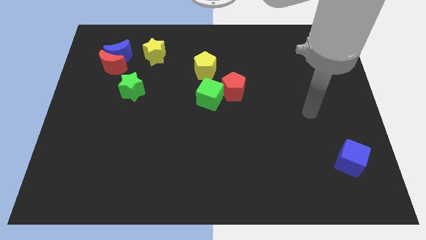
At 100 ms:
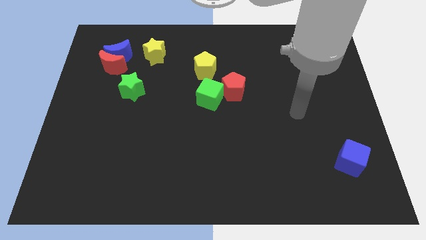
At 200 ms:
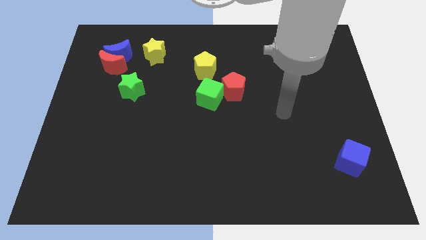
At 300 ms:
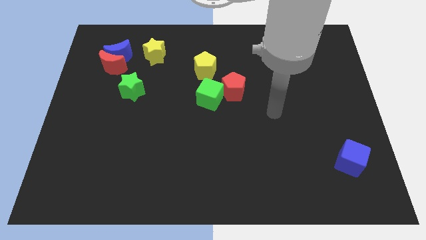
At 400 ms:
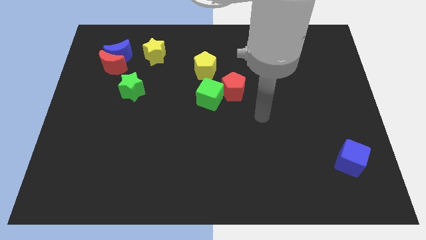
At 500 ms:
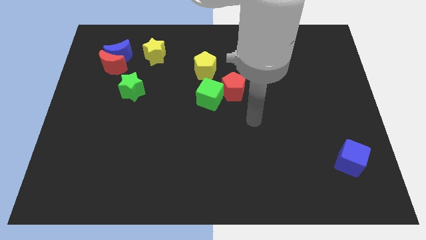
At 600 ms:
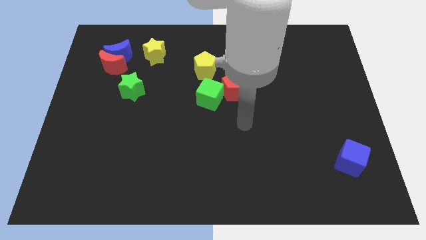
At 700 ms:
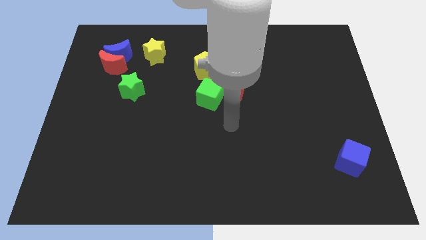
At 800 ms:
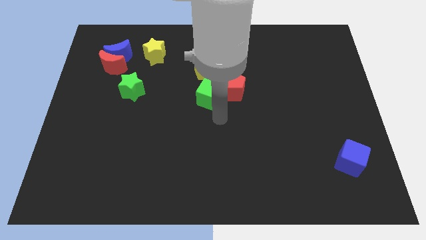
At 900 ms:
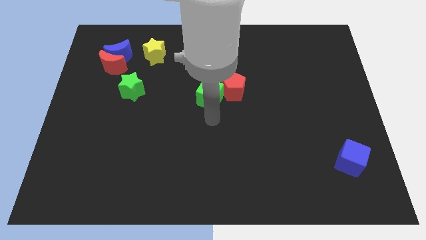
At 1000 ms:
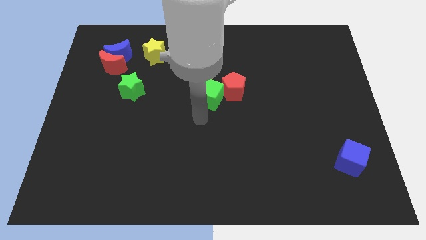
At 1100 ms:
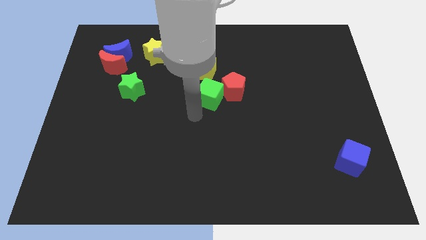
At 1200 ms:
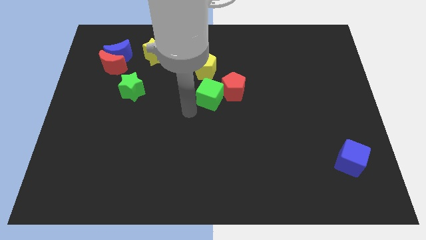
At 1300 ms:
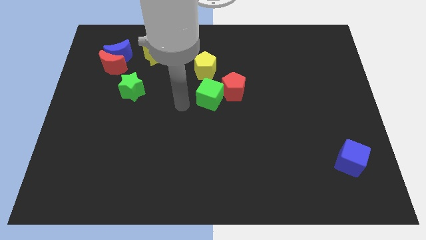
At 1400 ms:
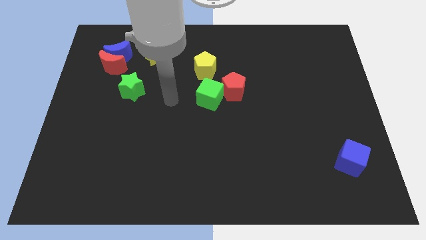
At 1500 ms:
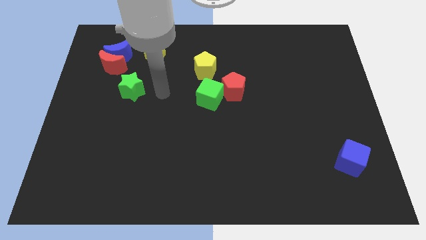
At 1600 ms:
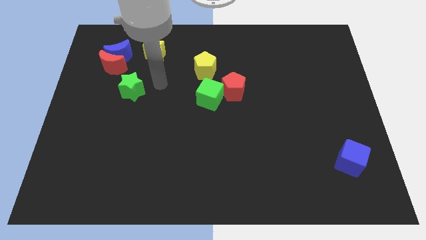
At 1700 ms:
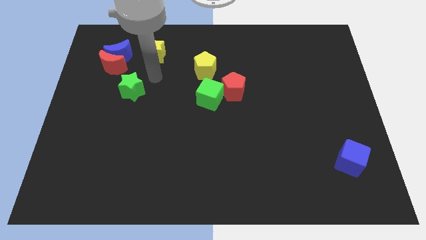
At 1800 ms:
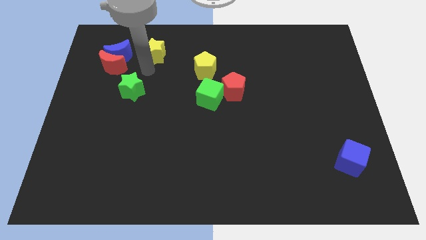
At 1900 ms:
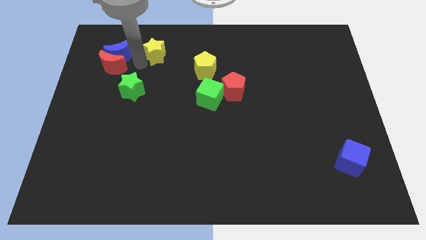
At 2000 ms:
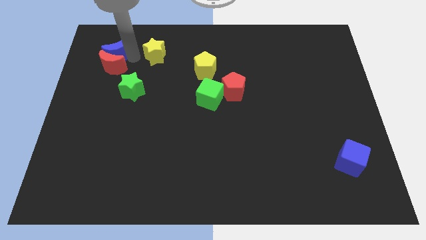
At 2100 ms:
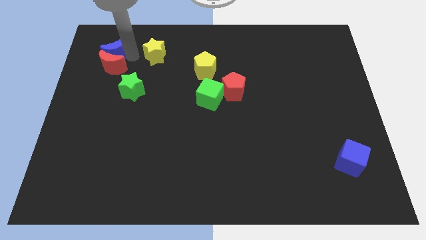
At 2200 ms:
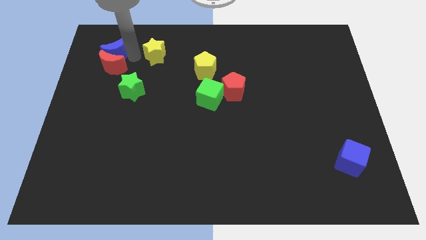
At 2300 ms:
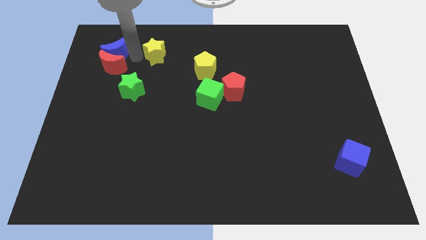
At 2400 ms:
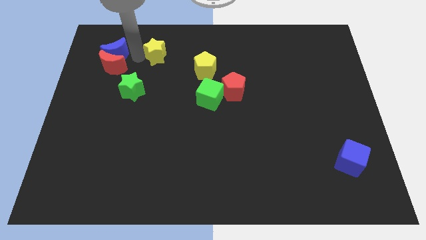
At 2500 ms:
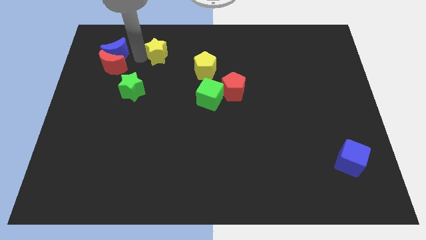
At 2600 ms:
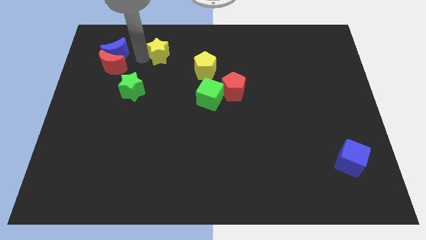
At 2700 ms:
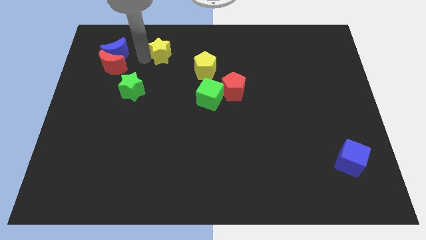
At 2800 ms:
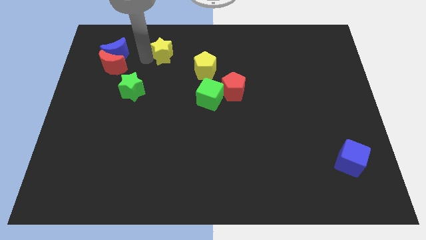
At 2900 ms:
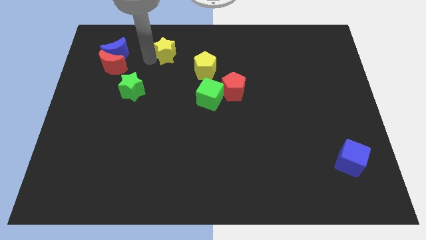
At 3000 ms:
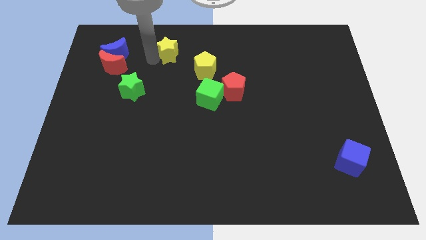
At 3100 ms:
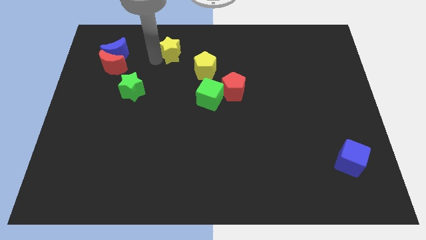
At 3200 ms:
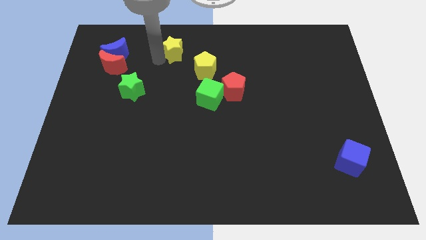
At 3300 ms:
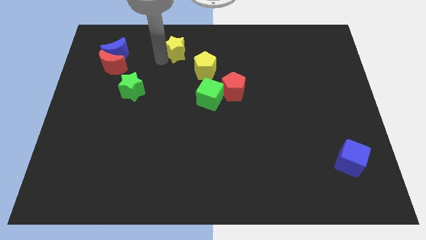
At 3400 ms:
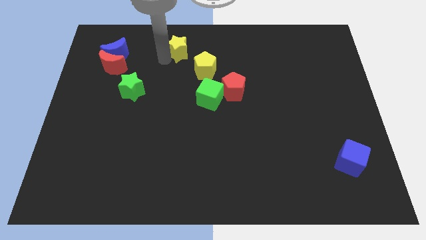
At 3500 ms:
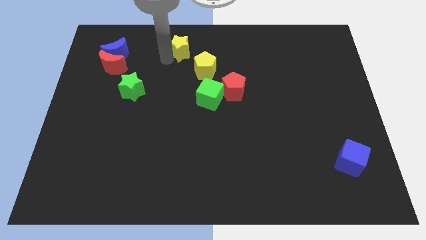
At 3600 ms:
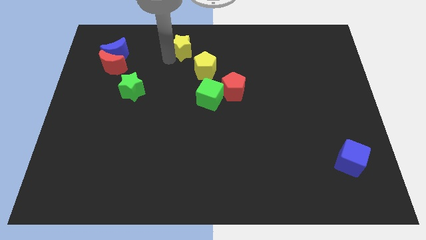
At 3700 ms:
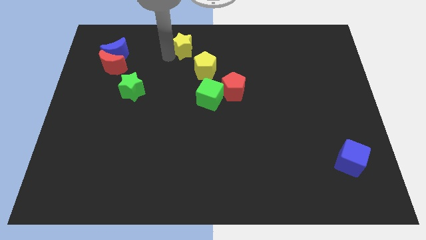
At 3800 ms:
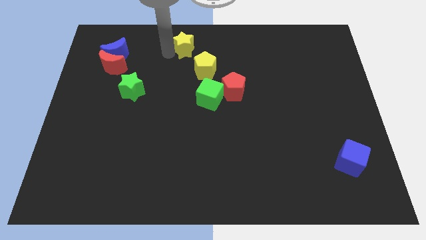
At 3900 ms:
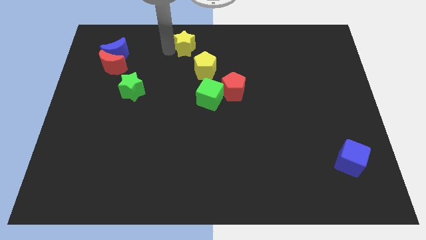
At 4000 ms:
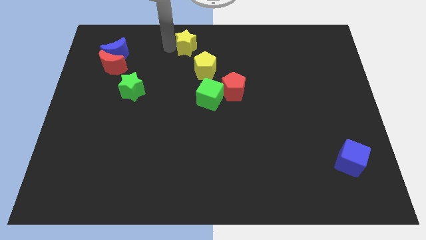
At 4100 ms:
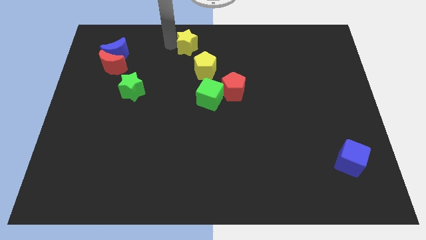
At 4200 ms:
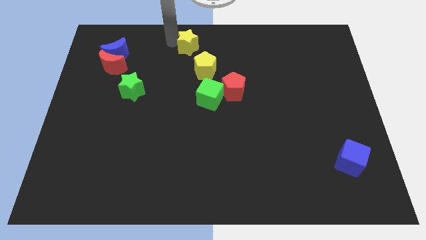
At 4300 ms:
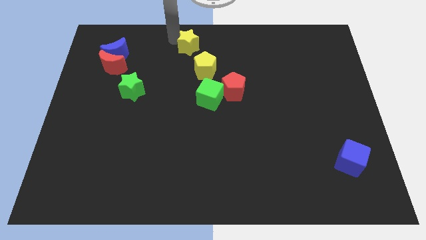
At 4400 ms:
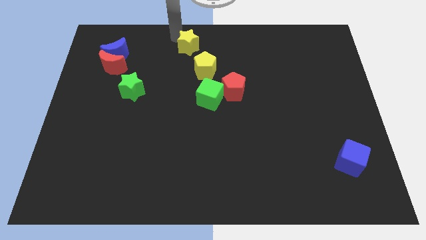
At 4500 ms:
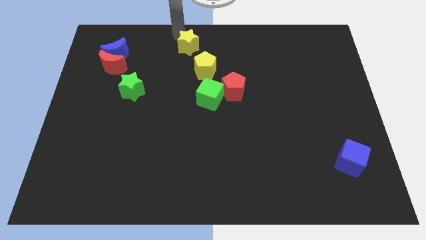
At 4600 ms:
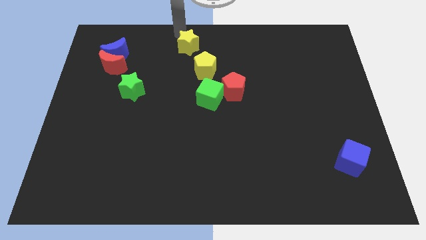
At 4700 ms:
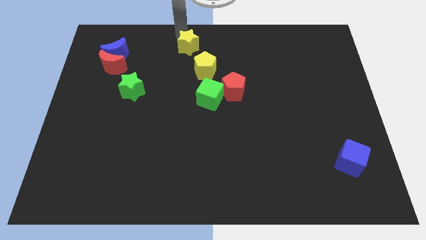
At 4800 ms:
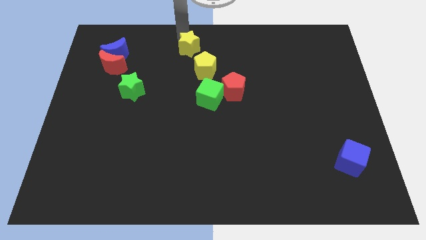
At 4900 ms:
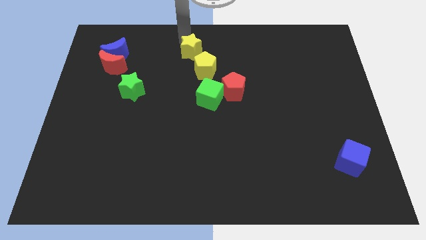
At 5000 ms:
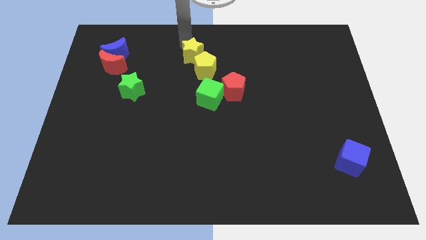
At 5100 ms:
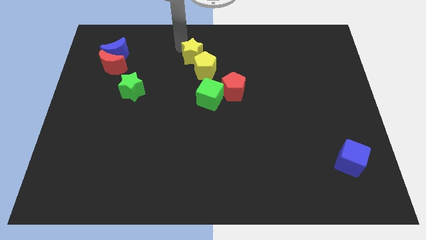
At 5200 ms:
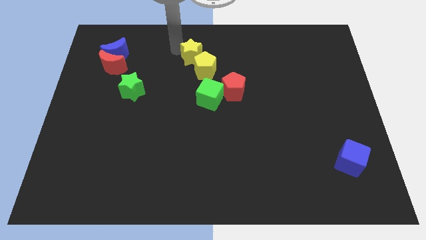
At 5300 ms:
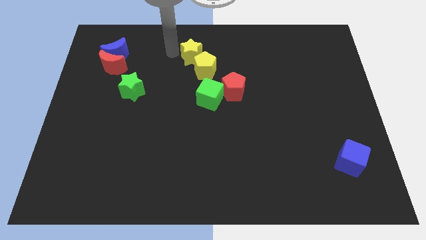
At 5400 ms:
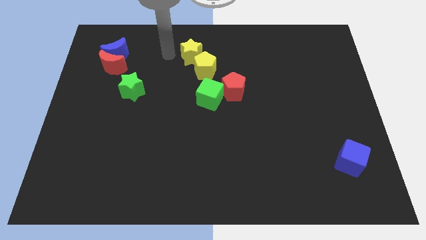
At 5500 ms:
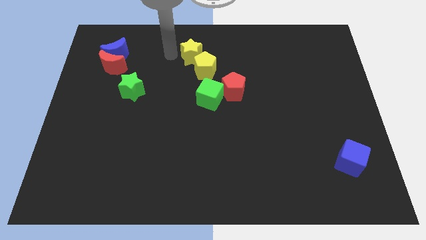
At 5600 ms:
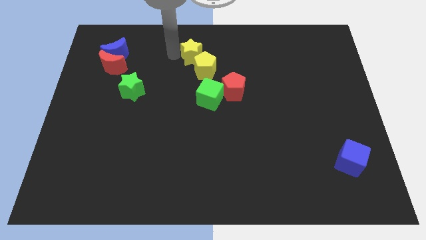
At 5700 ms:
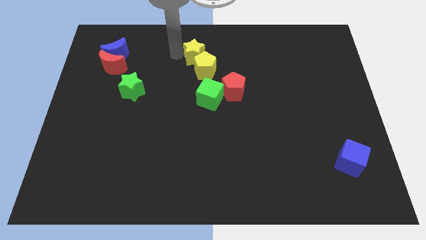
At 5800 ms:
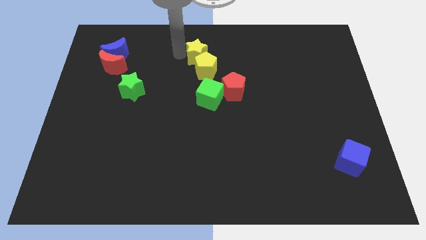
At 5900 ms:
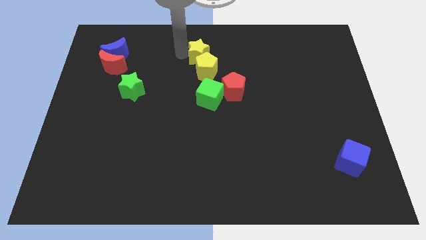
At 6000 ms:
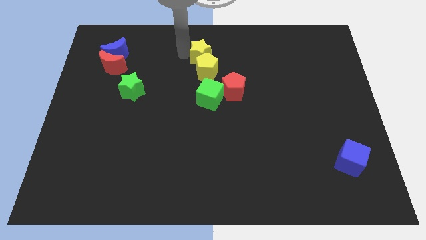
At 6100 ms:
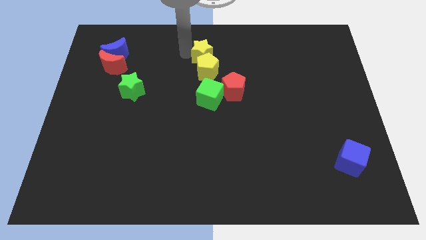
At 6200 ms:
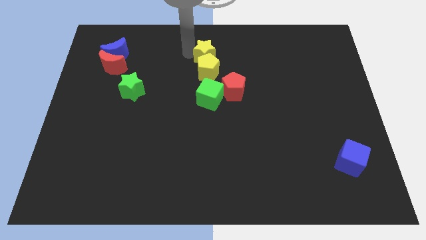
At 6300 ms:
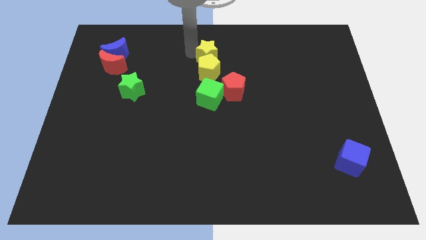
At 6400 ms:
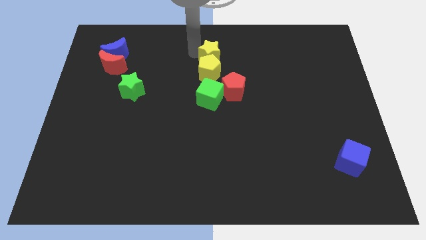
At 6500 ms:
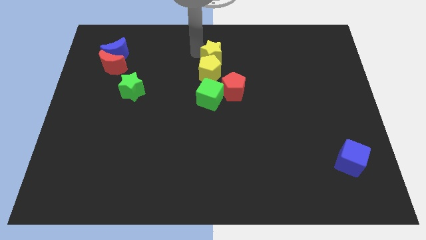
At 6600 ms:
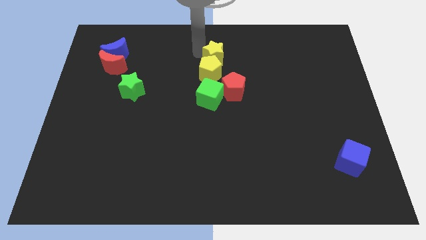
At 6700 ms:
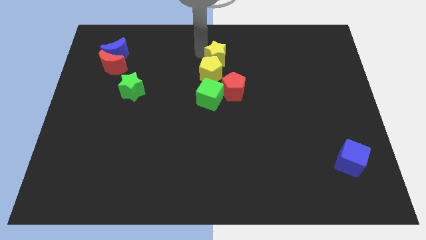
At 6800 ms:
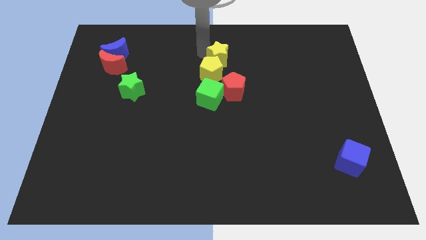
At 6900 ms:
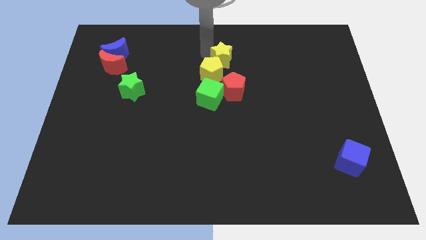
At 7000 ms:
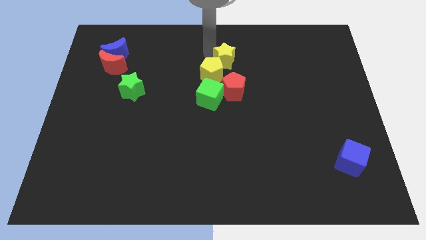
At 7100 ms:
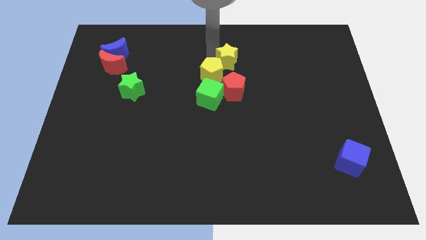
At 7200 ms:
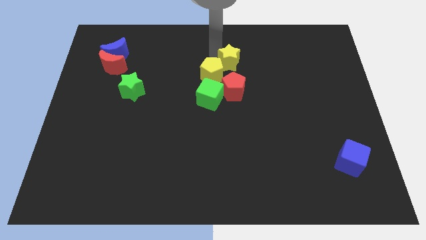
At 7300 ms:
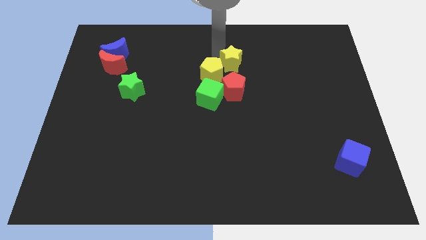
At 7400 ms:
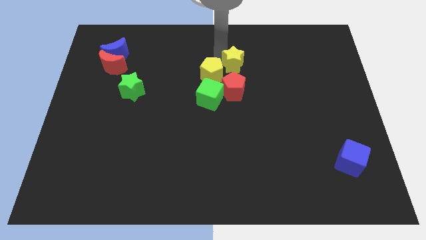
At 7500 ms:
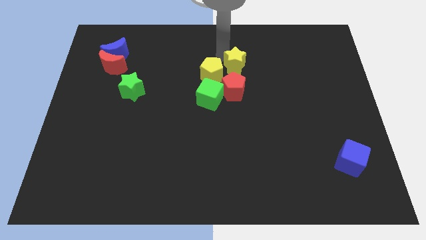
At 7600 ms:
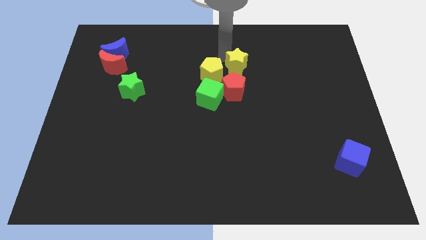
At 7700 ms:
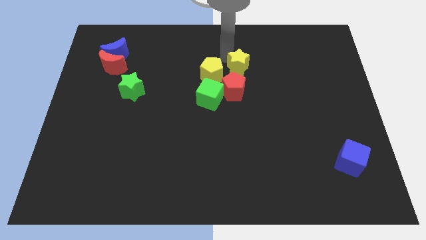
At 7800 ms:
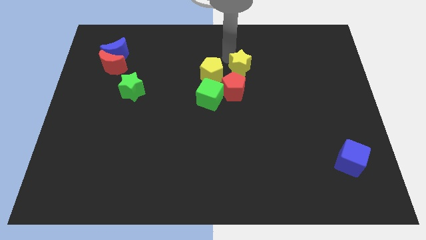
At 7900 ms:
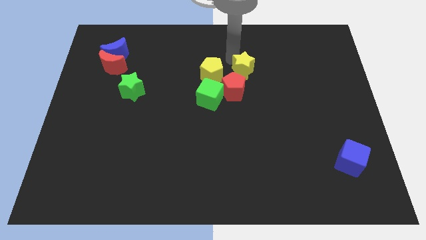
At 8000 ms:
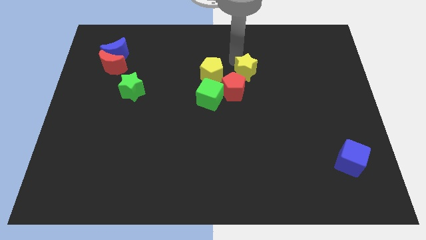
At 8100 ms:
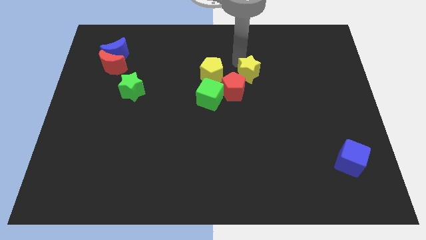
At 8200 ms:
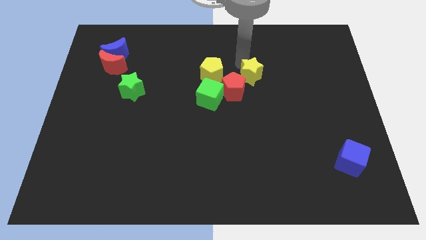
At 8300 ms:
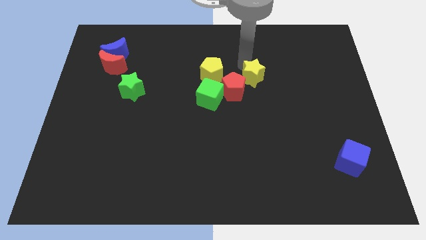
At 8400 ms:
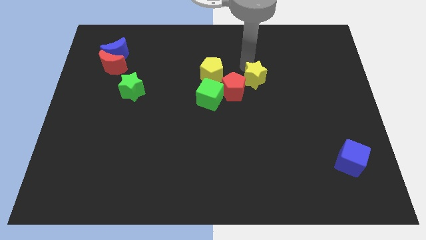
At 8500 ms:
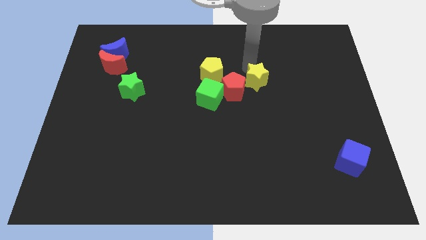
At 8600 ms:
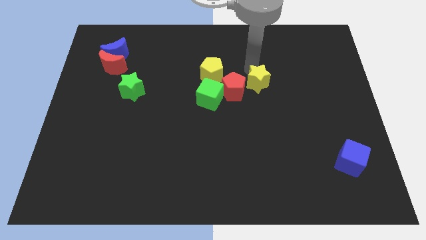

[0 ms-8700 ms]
move the yellow star right of the green cube
